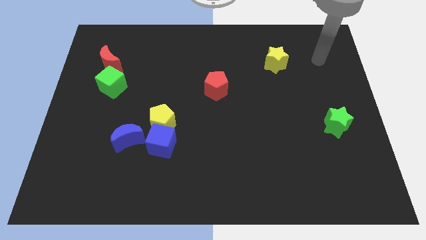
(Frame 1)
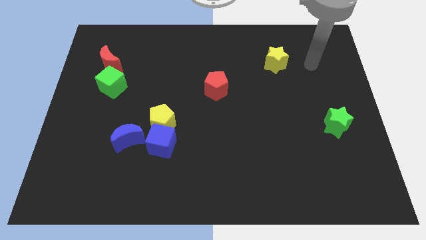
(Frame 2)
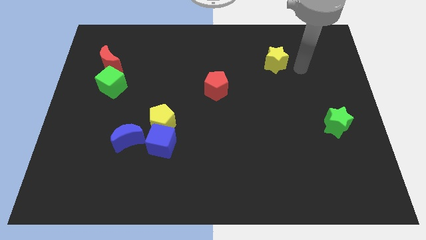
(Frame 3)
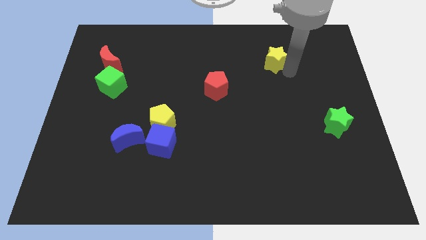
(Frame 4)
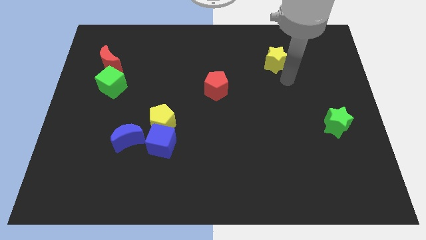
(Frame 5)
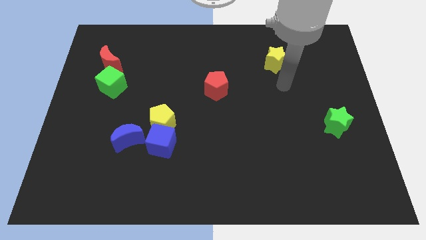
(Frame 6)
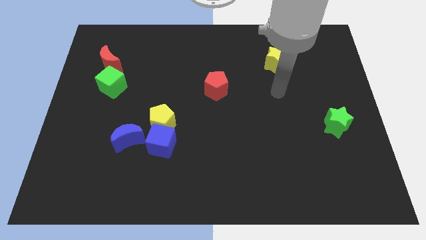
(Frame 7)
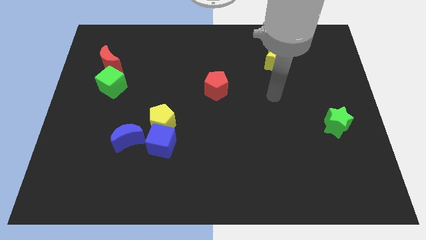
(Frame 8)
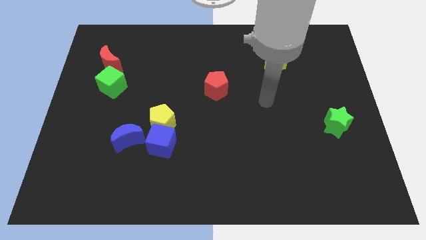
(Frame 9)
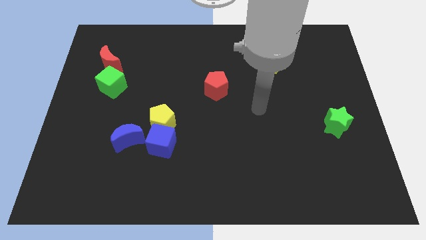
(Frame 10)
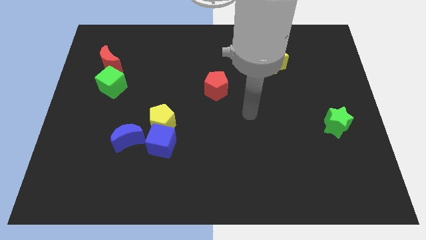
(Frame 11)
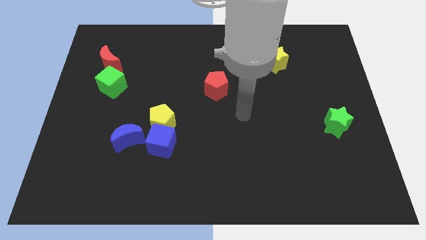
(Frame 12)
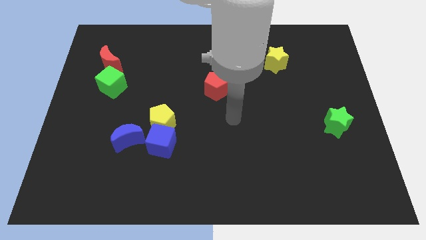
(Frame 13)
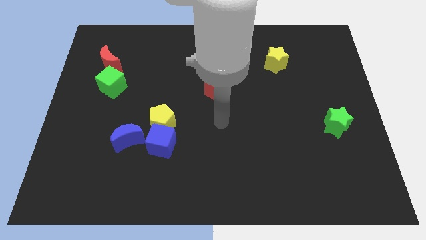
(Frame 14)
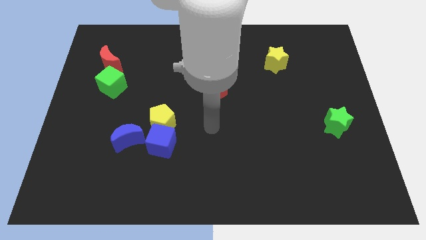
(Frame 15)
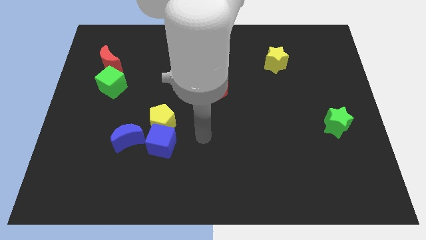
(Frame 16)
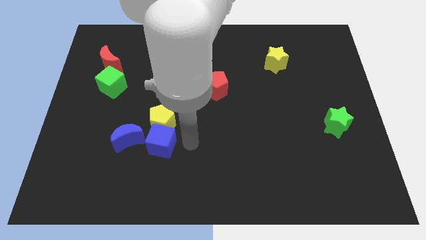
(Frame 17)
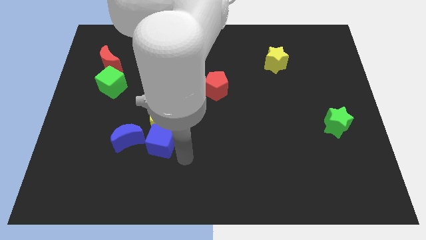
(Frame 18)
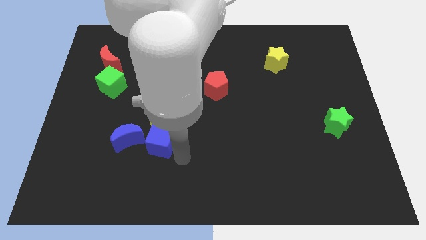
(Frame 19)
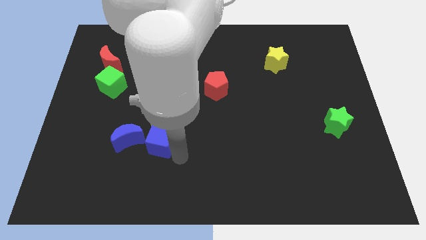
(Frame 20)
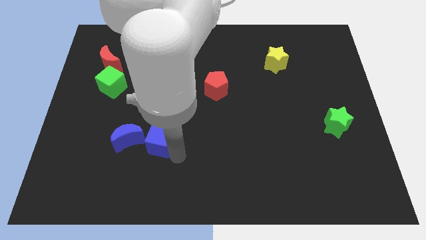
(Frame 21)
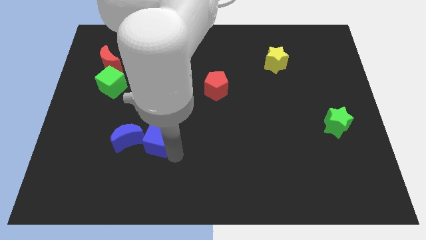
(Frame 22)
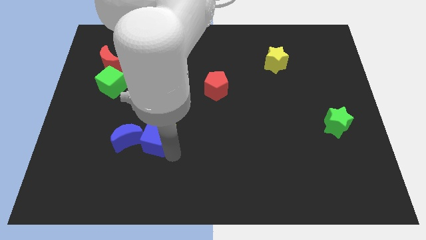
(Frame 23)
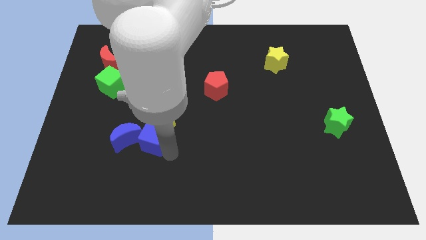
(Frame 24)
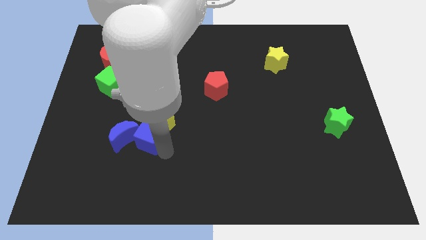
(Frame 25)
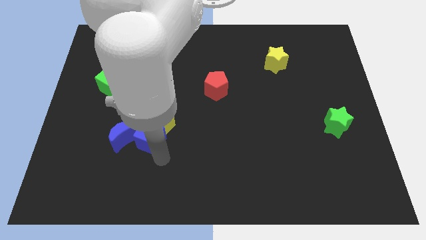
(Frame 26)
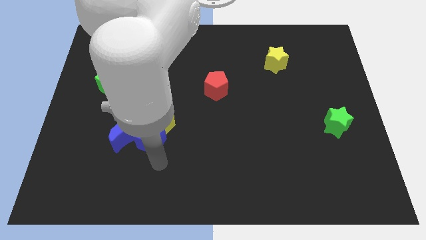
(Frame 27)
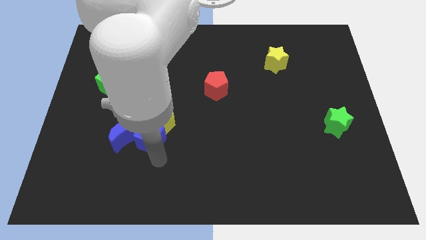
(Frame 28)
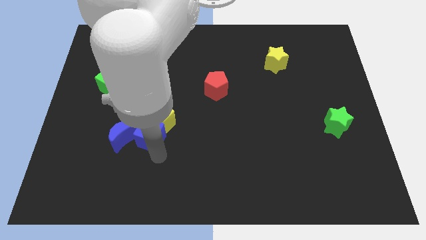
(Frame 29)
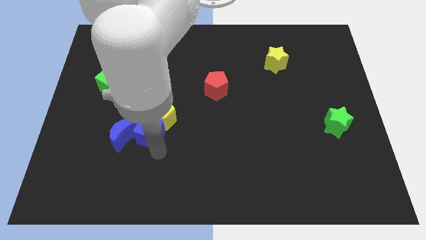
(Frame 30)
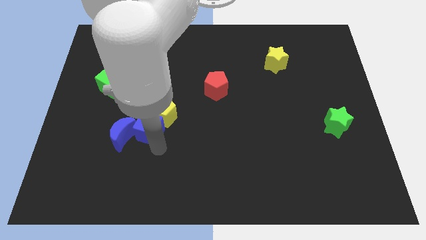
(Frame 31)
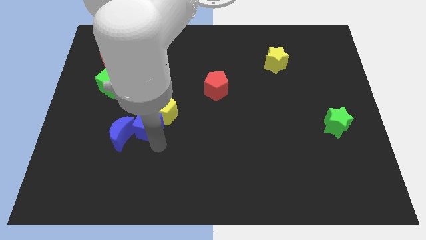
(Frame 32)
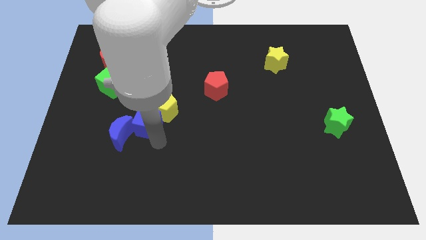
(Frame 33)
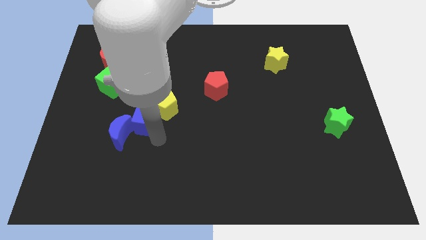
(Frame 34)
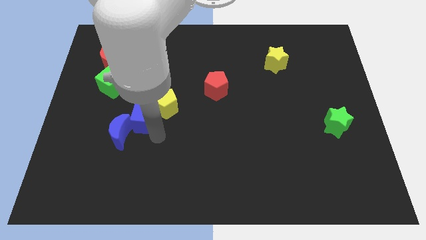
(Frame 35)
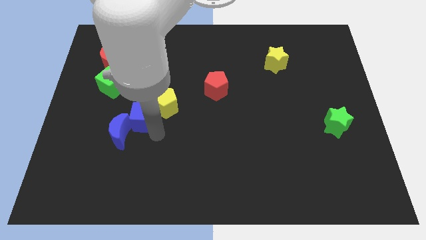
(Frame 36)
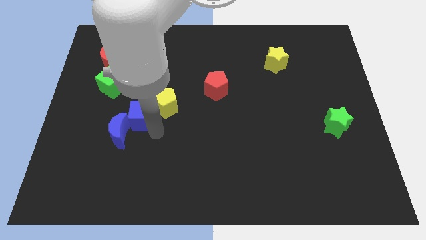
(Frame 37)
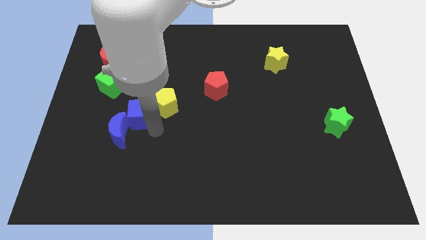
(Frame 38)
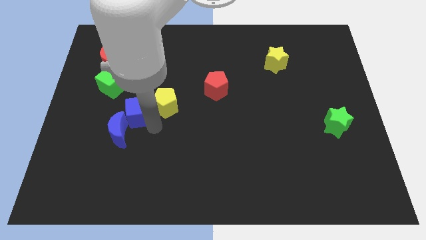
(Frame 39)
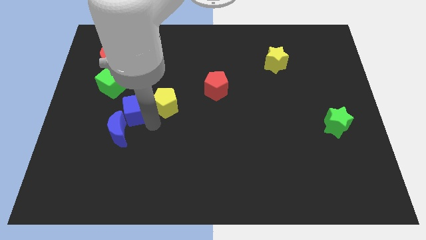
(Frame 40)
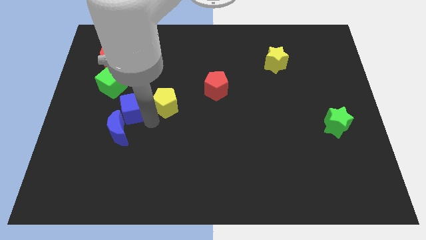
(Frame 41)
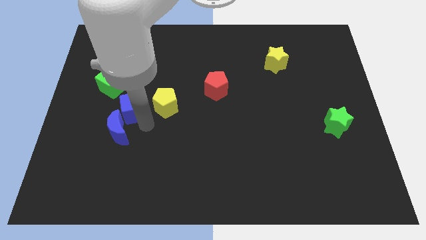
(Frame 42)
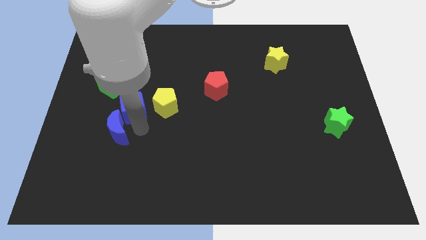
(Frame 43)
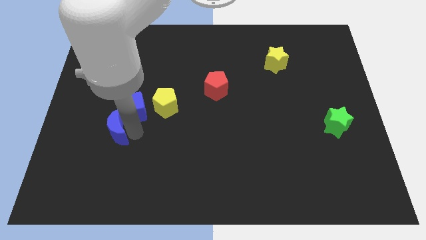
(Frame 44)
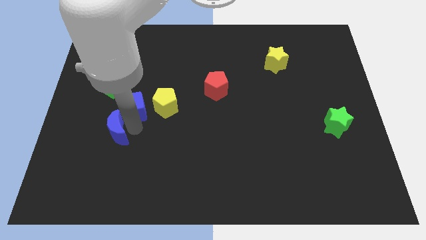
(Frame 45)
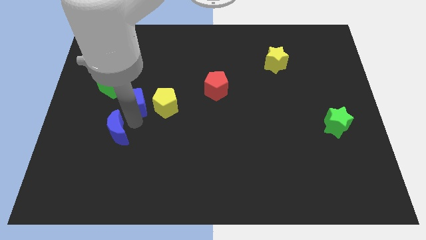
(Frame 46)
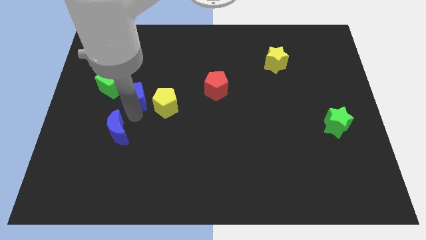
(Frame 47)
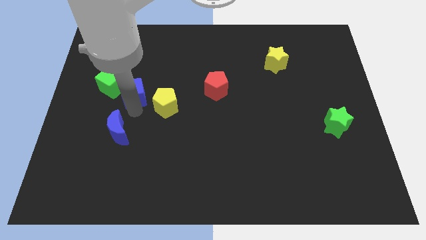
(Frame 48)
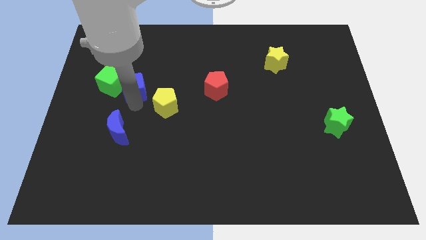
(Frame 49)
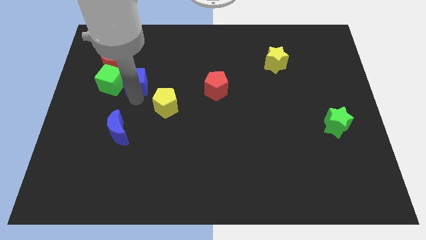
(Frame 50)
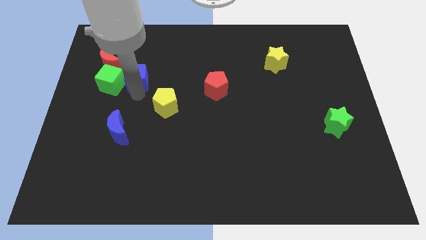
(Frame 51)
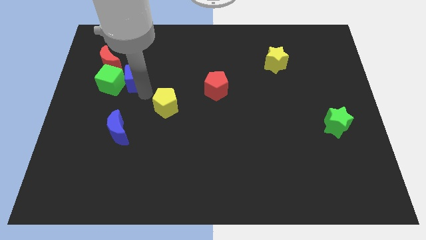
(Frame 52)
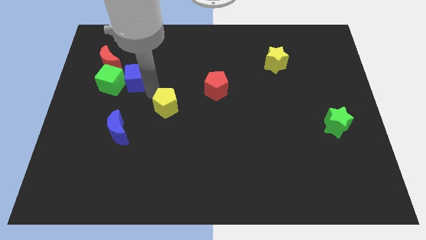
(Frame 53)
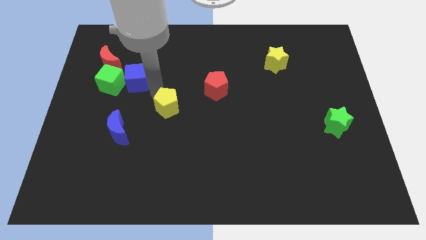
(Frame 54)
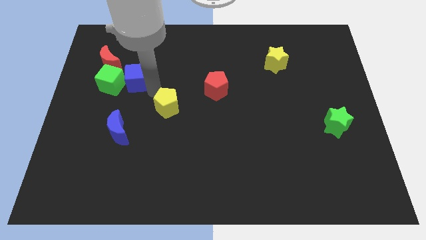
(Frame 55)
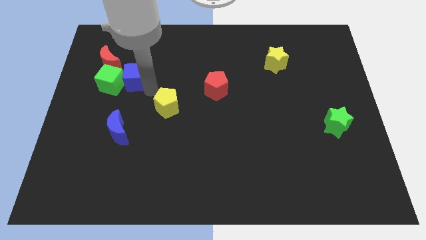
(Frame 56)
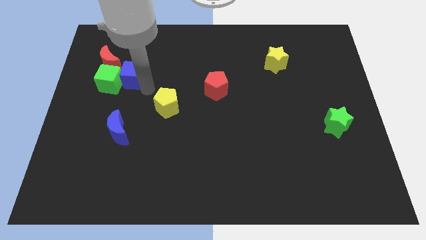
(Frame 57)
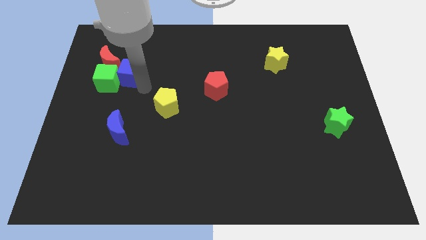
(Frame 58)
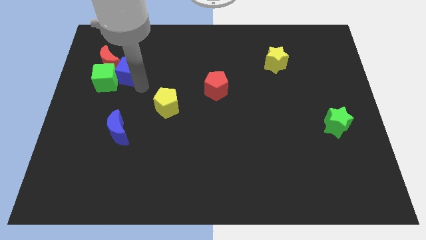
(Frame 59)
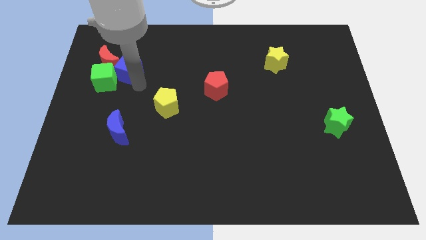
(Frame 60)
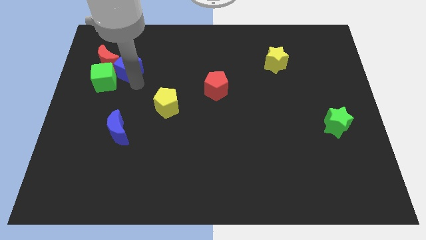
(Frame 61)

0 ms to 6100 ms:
push the blue cube to the red moon
